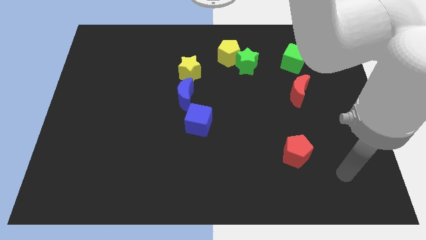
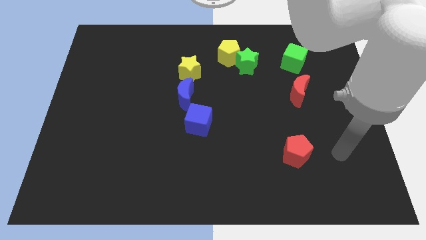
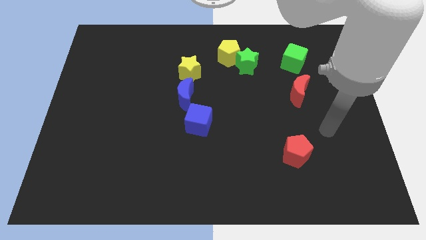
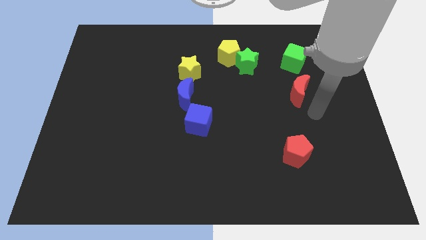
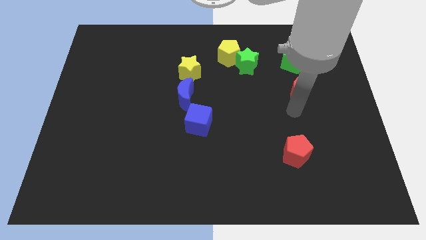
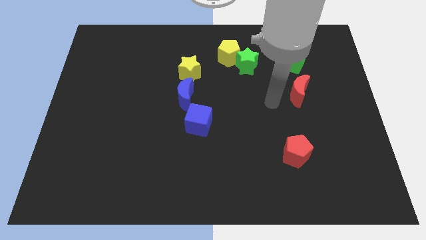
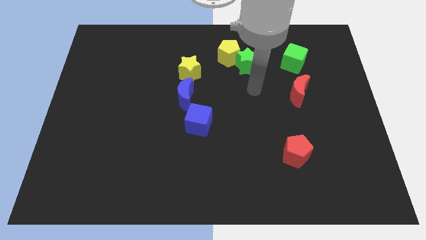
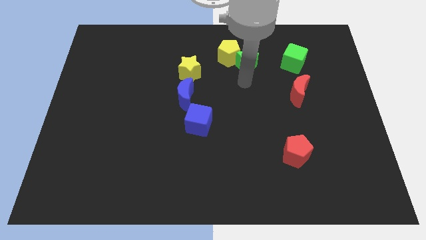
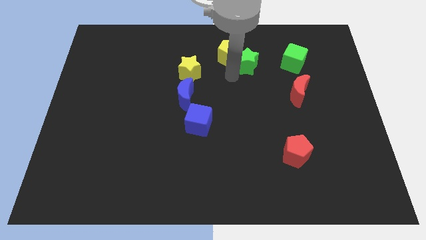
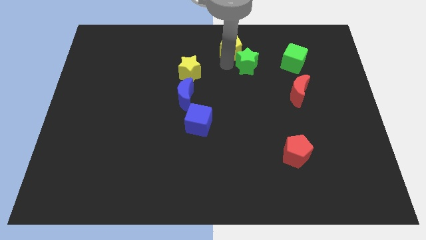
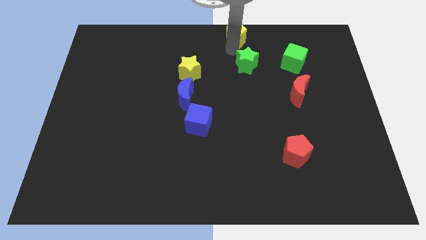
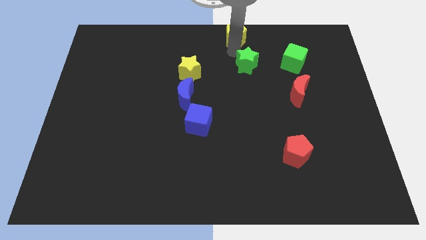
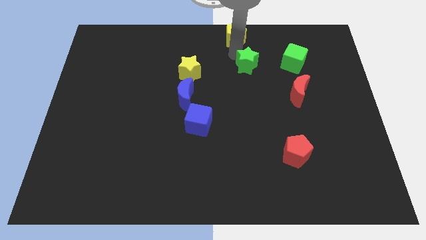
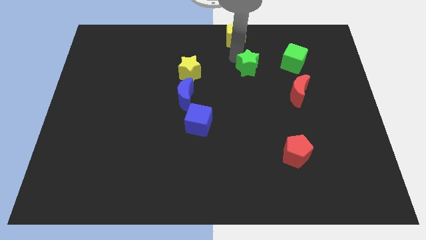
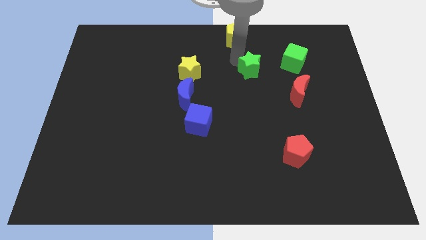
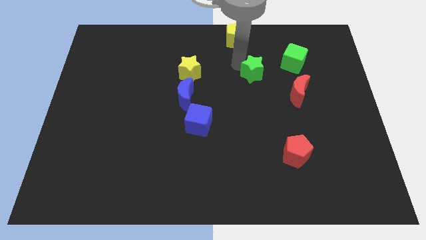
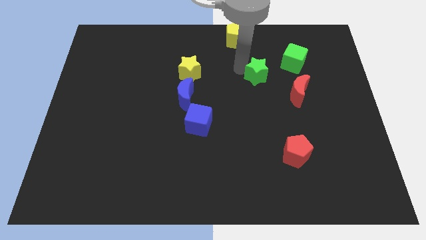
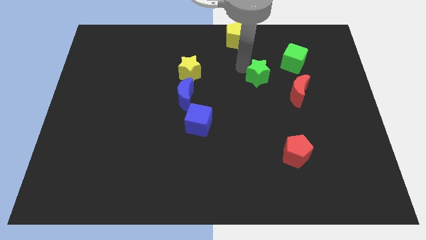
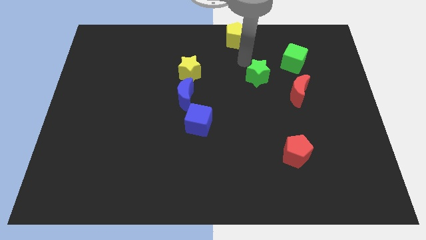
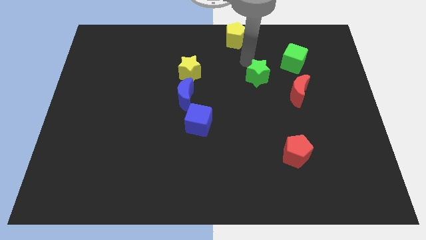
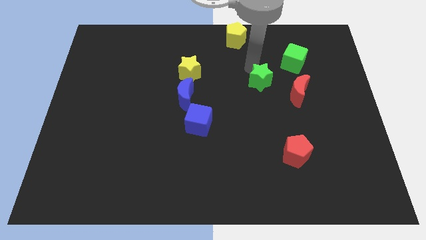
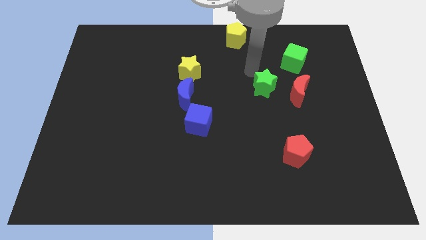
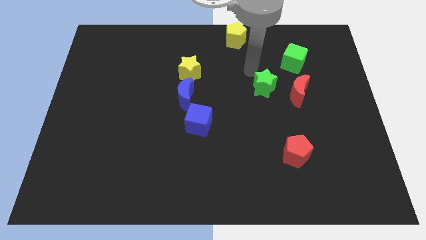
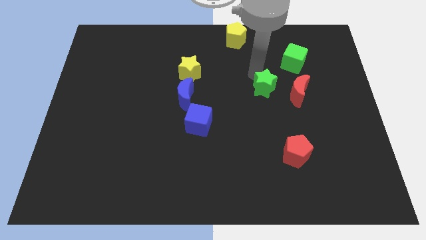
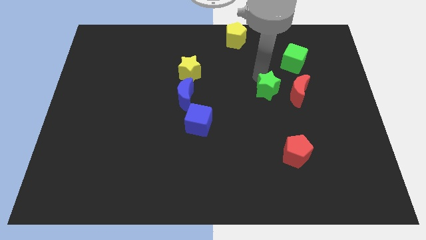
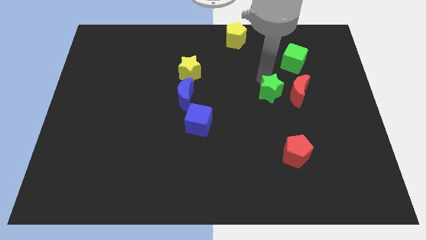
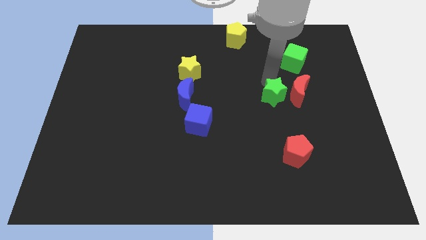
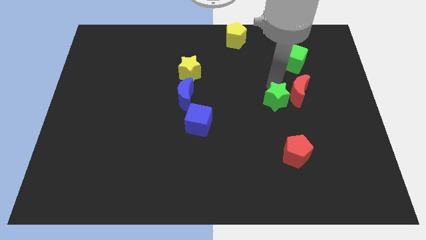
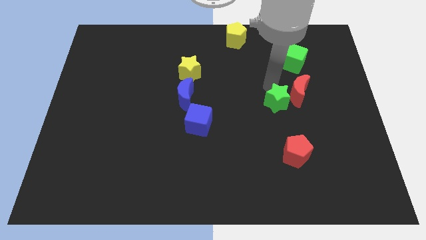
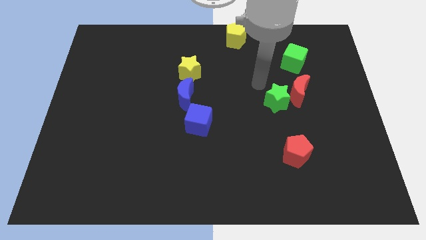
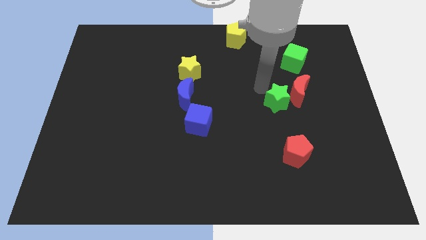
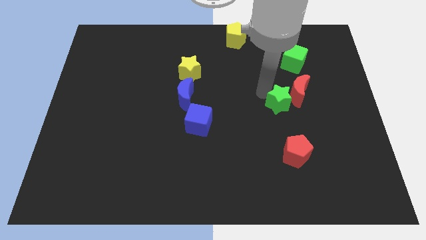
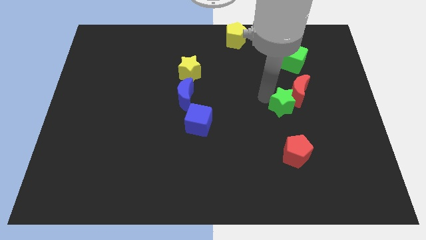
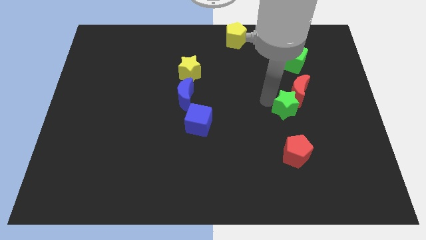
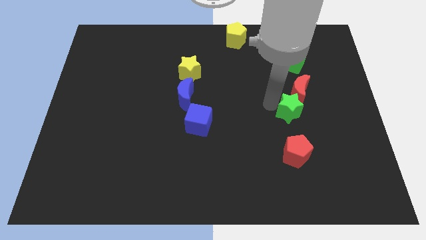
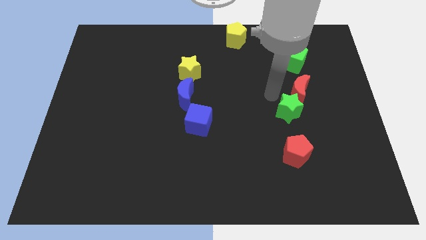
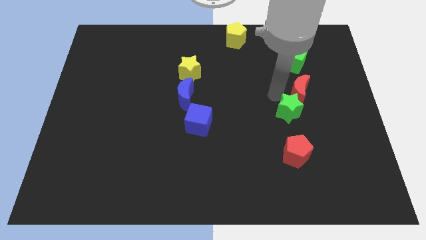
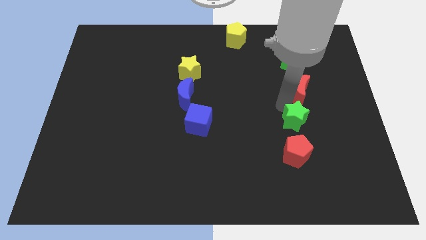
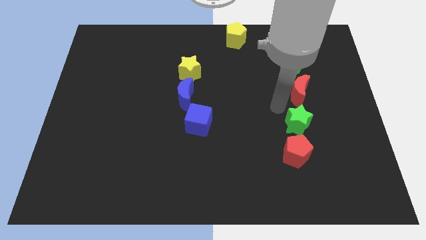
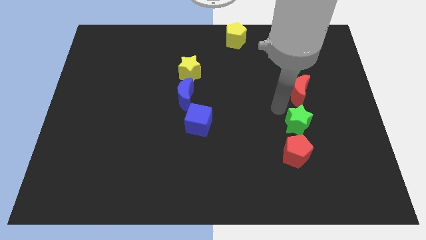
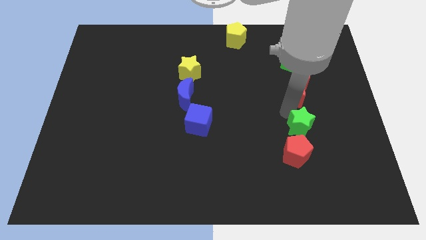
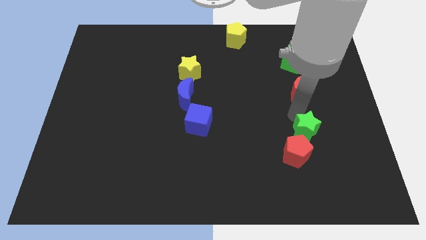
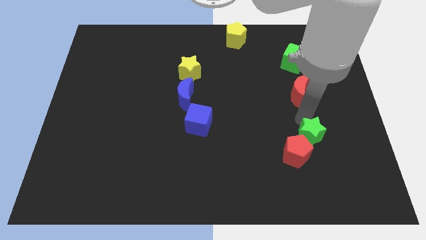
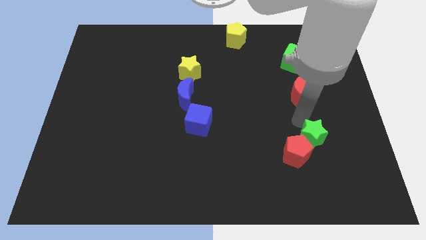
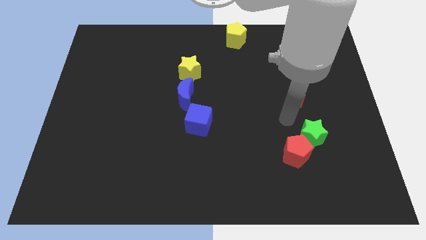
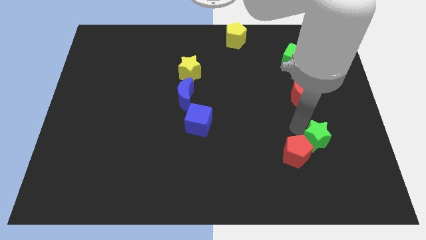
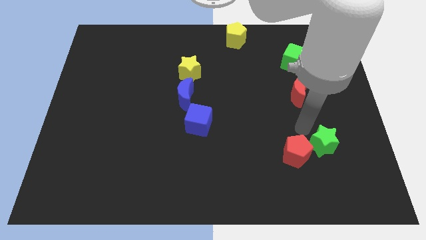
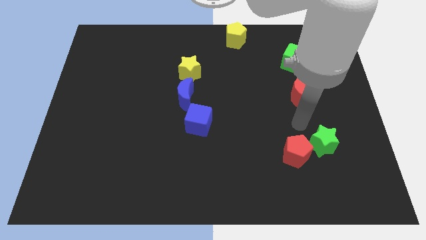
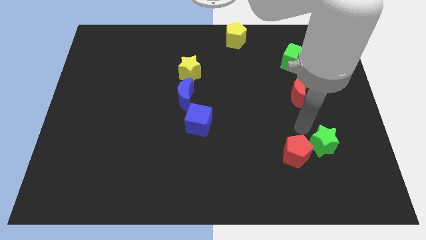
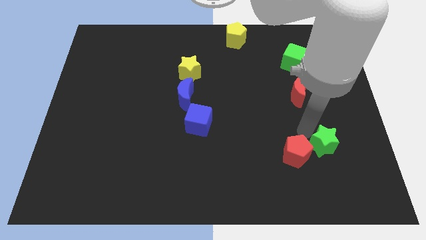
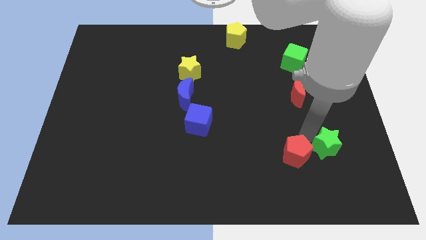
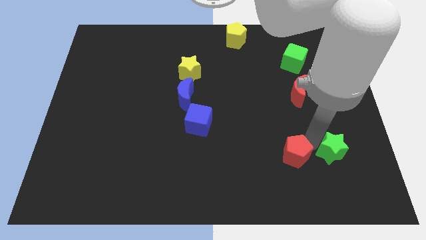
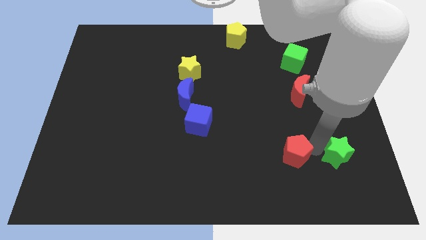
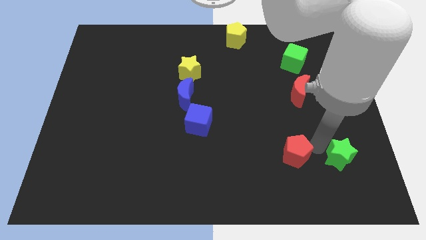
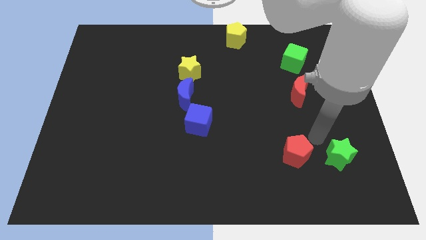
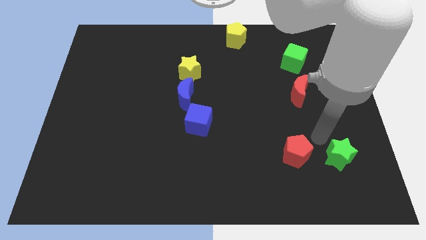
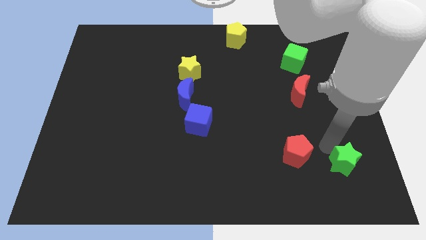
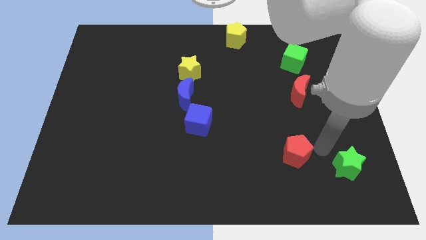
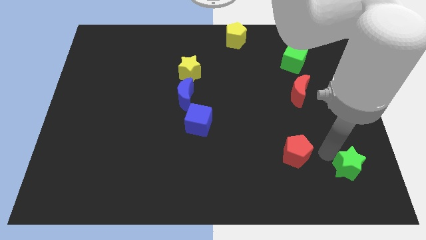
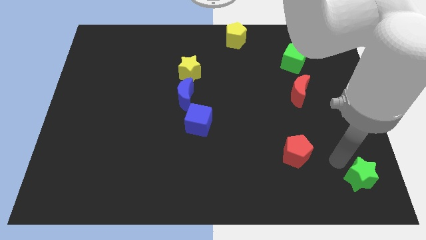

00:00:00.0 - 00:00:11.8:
push the green star to the bottom right corner
